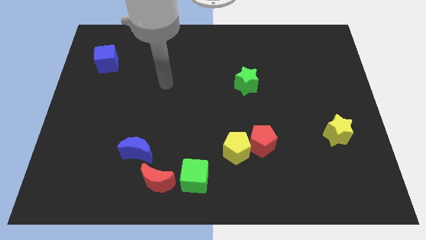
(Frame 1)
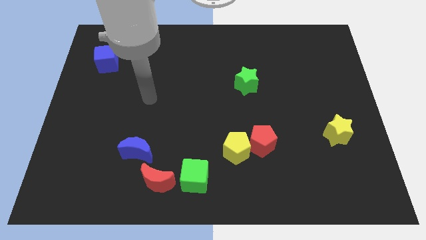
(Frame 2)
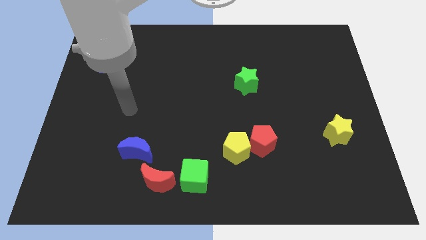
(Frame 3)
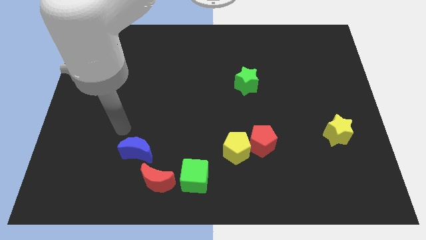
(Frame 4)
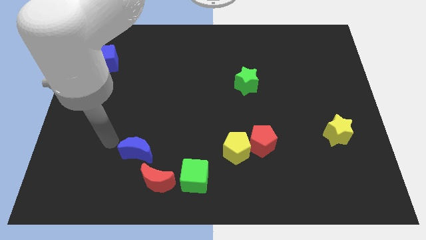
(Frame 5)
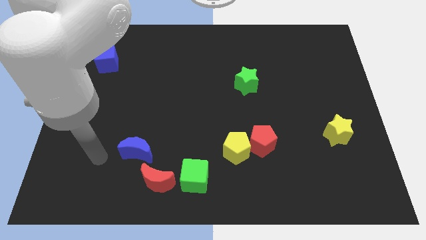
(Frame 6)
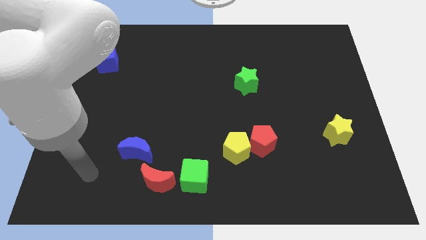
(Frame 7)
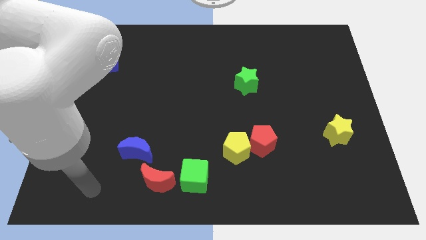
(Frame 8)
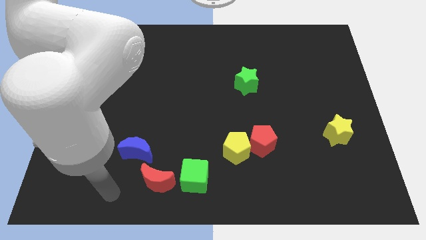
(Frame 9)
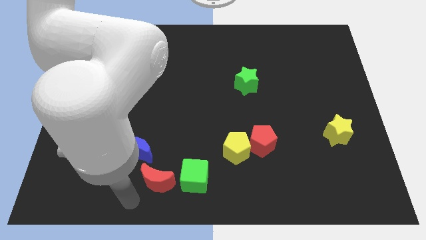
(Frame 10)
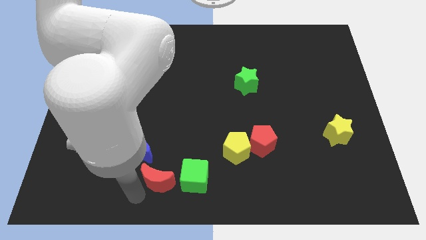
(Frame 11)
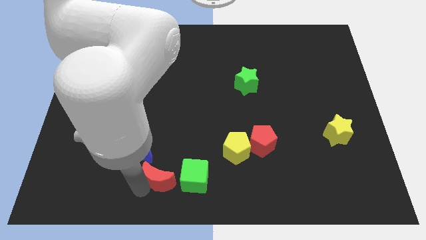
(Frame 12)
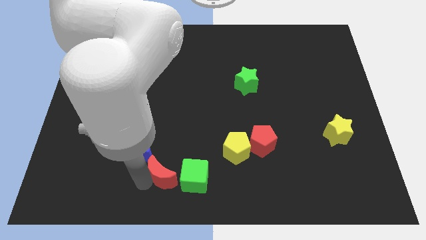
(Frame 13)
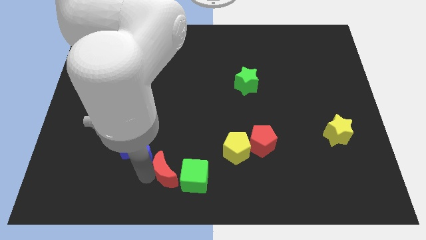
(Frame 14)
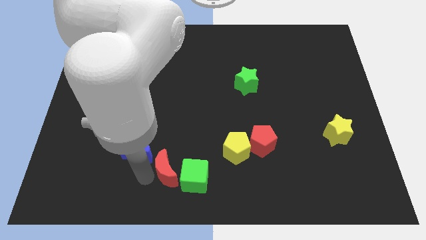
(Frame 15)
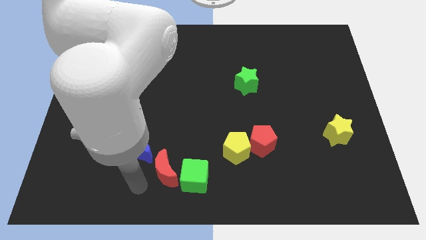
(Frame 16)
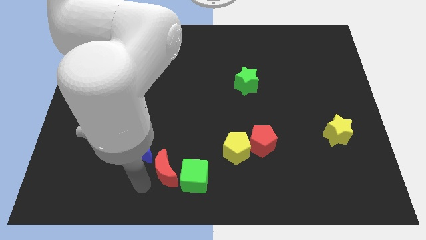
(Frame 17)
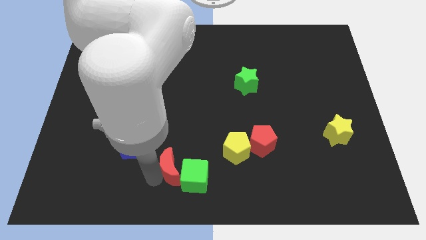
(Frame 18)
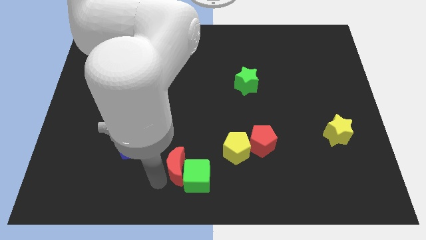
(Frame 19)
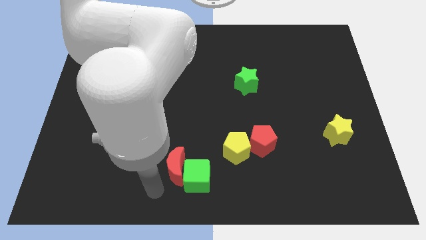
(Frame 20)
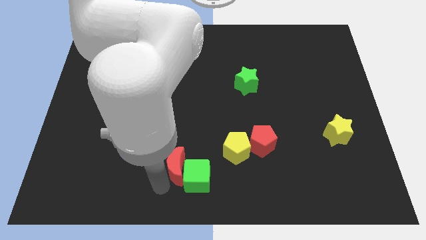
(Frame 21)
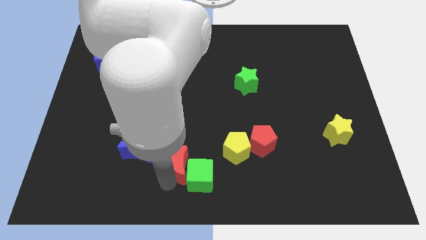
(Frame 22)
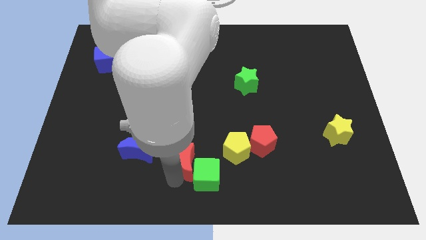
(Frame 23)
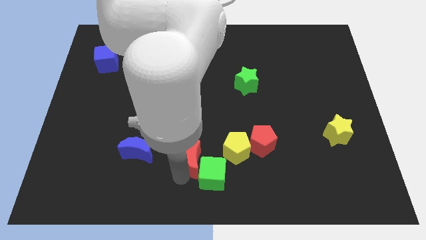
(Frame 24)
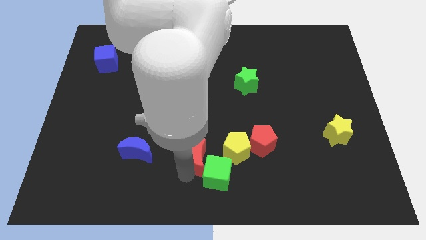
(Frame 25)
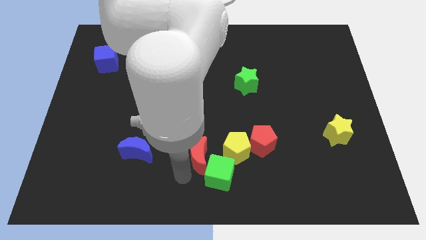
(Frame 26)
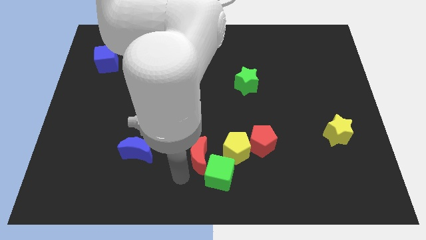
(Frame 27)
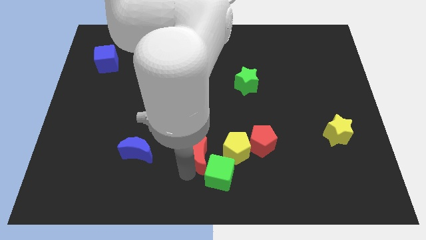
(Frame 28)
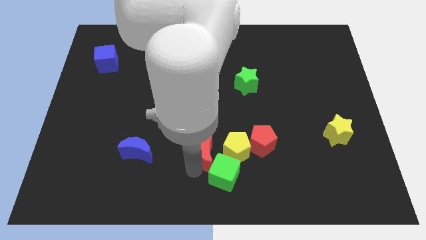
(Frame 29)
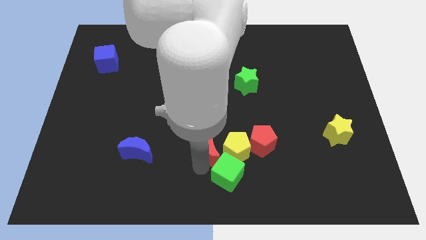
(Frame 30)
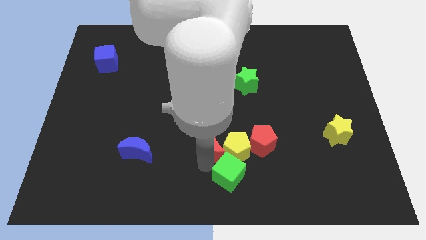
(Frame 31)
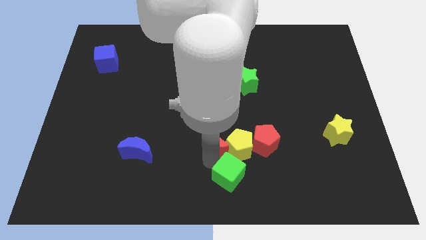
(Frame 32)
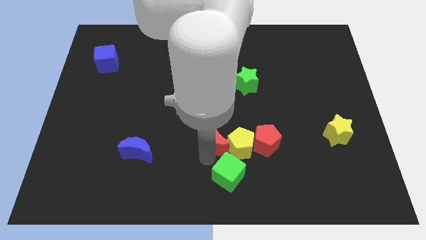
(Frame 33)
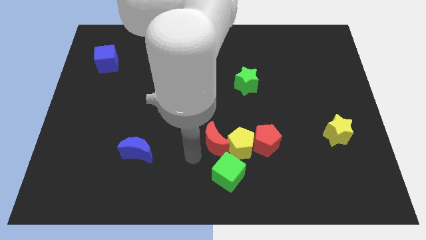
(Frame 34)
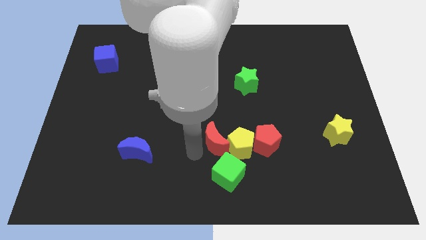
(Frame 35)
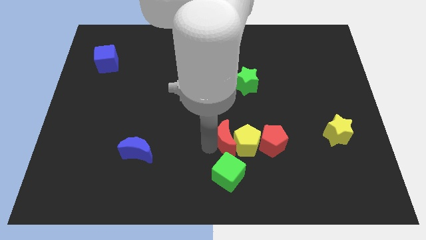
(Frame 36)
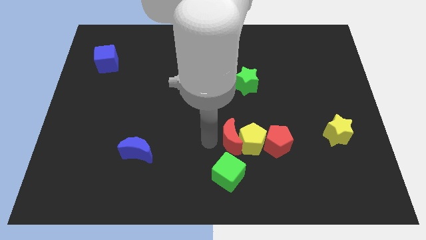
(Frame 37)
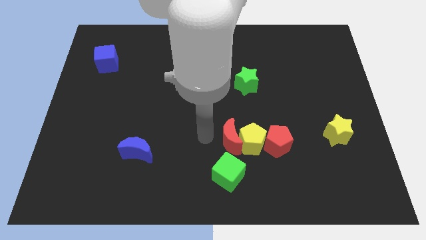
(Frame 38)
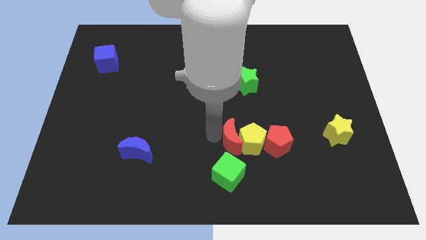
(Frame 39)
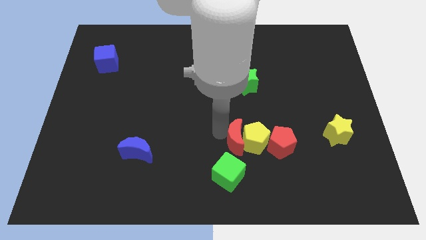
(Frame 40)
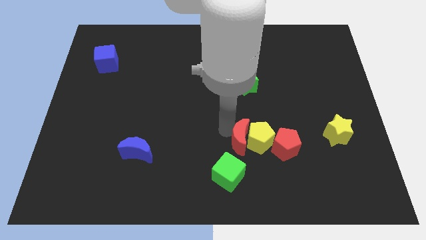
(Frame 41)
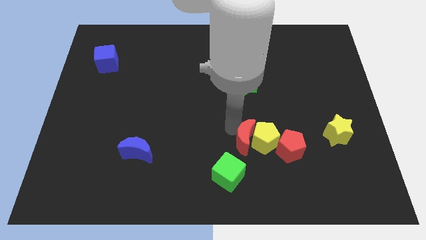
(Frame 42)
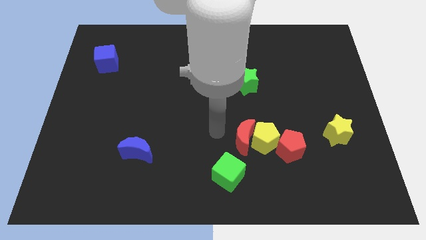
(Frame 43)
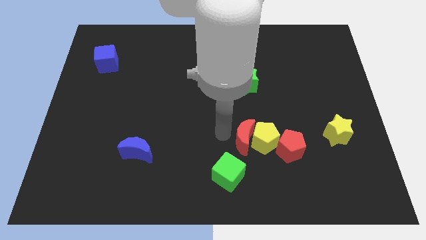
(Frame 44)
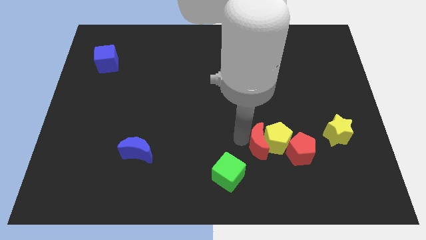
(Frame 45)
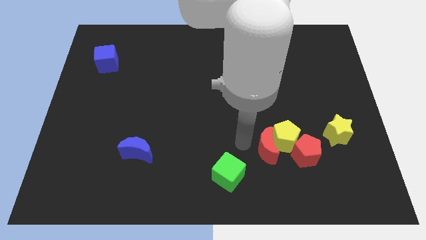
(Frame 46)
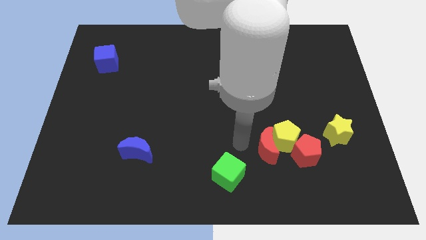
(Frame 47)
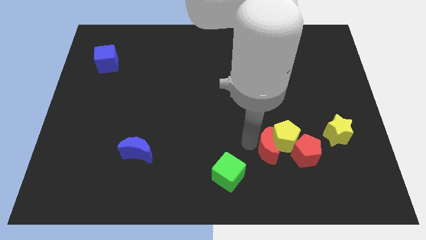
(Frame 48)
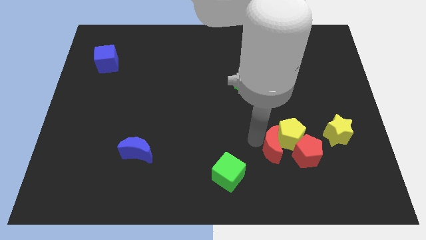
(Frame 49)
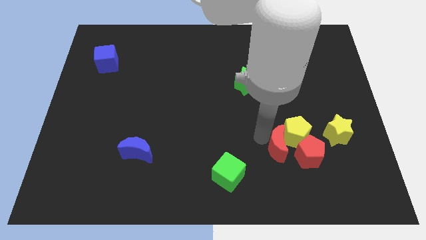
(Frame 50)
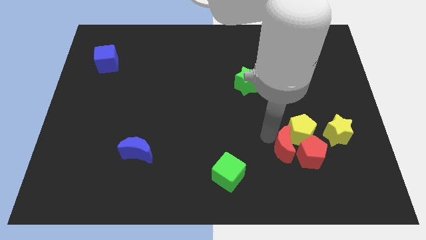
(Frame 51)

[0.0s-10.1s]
move the red moon next to the red pentagon

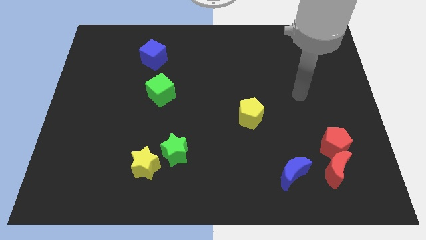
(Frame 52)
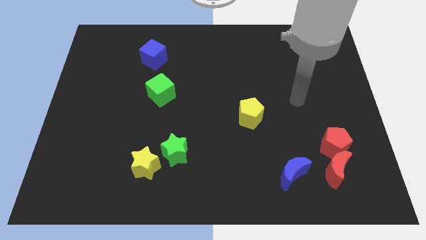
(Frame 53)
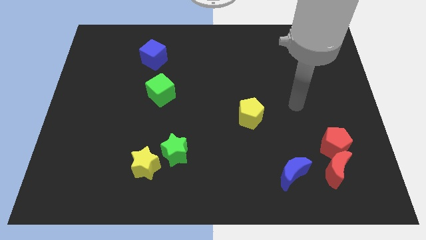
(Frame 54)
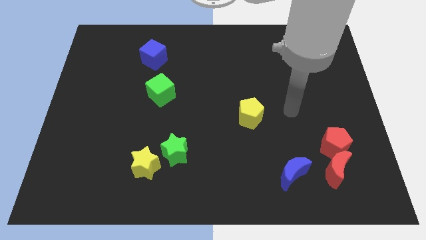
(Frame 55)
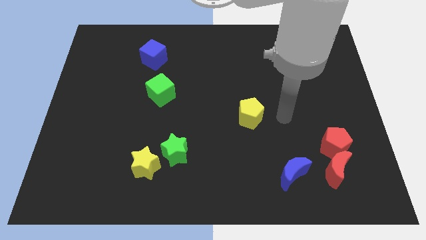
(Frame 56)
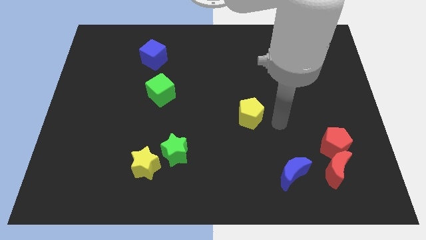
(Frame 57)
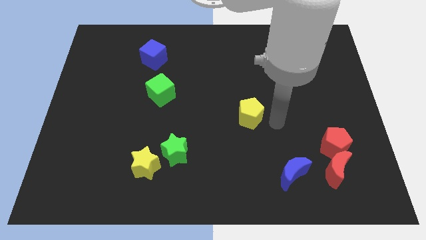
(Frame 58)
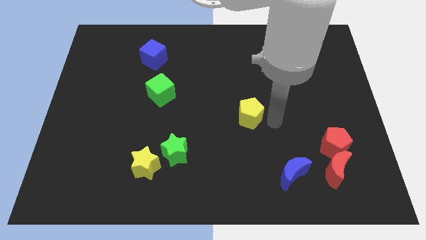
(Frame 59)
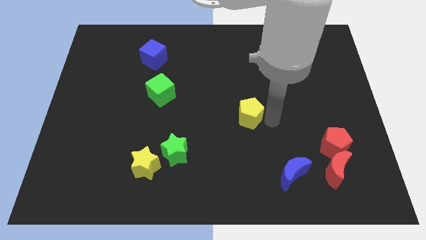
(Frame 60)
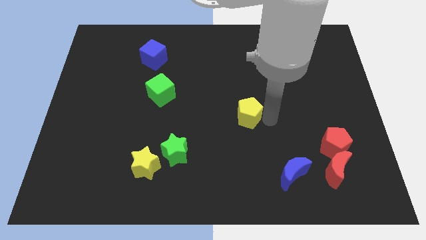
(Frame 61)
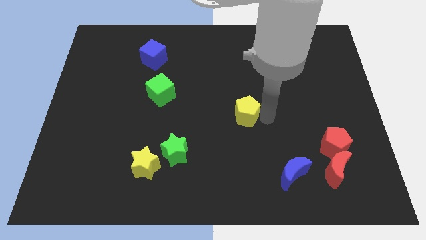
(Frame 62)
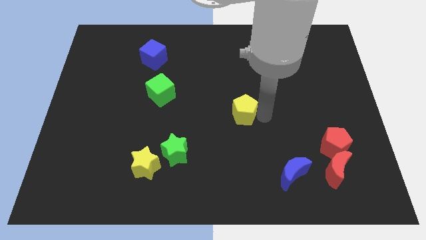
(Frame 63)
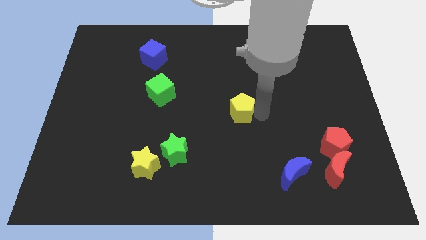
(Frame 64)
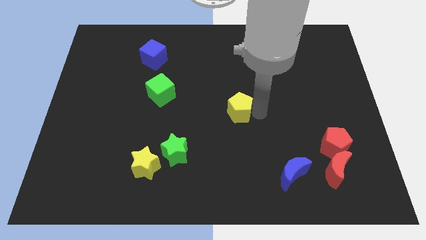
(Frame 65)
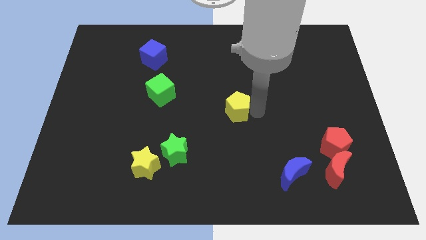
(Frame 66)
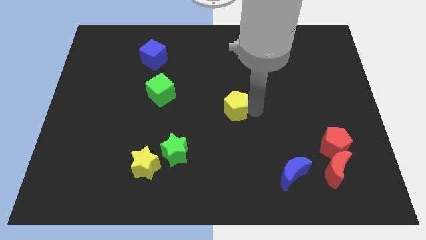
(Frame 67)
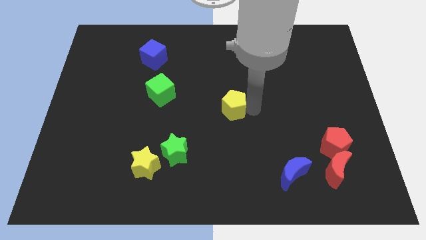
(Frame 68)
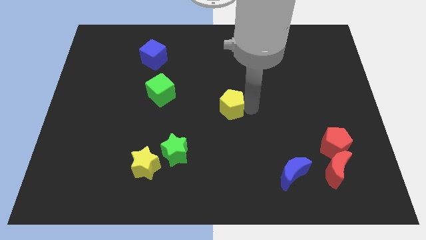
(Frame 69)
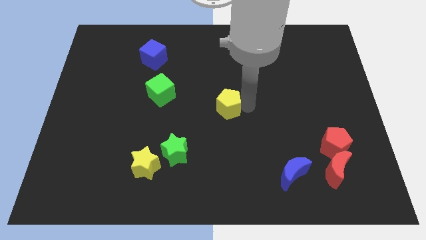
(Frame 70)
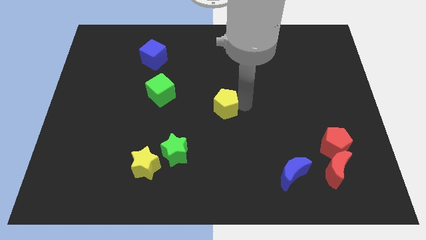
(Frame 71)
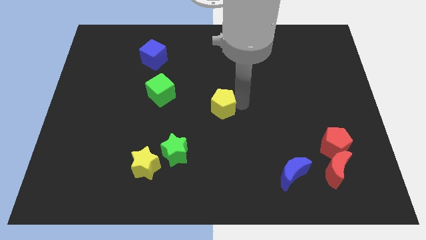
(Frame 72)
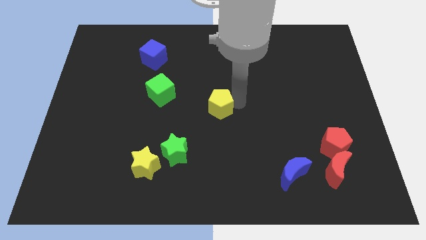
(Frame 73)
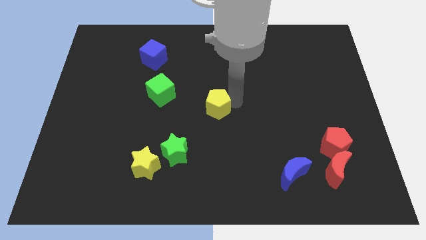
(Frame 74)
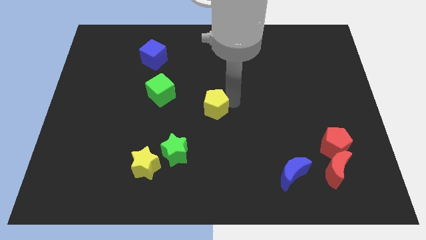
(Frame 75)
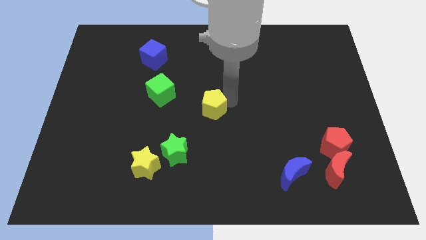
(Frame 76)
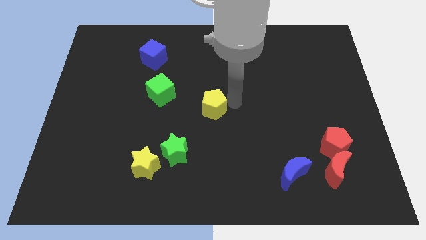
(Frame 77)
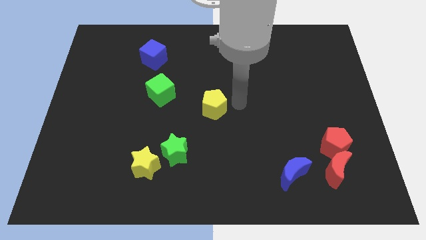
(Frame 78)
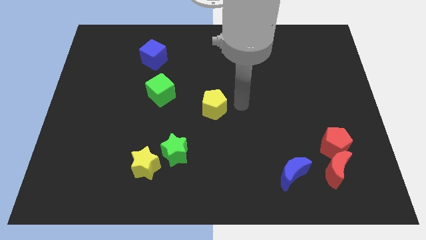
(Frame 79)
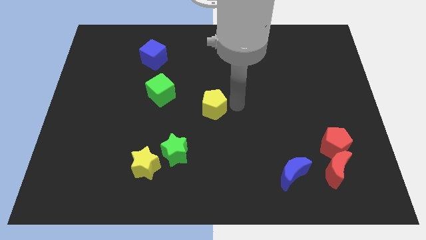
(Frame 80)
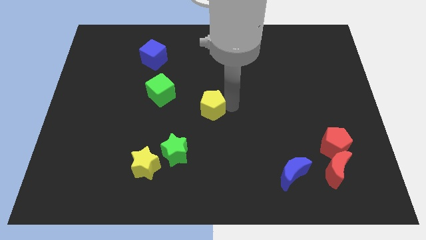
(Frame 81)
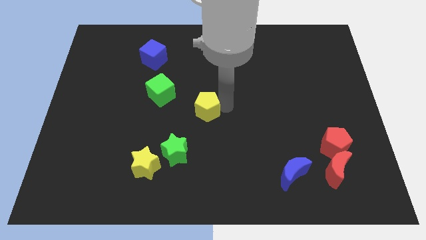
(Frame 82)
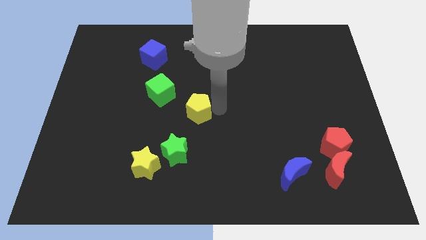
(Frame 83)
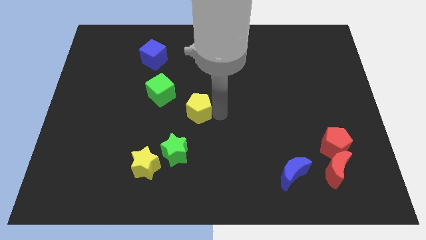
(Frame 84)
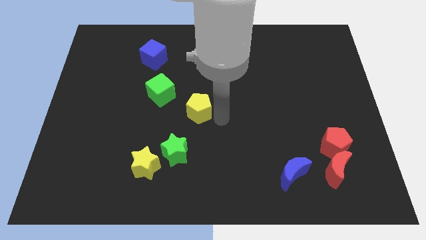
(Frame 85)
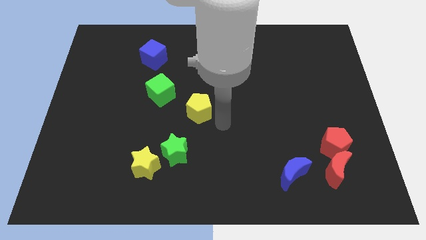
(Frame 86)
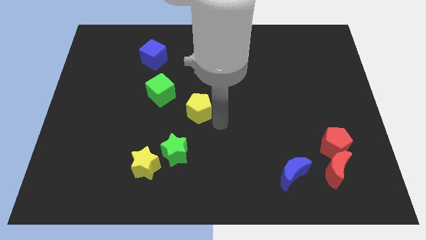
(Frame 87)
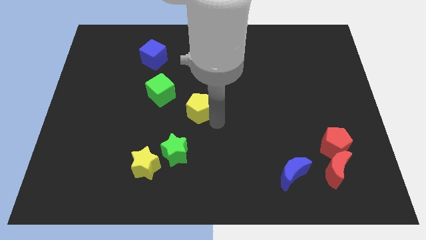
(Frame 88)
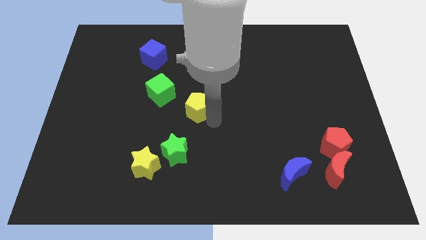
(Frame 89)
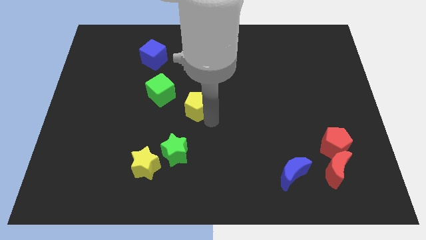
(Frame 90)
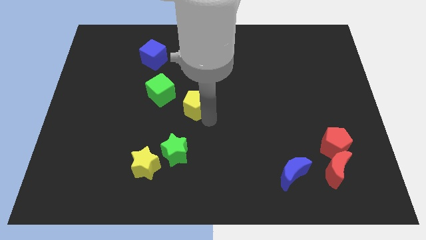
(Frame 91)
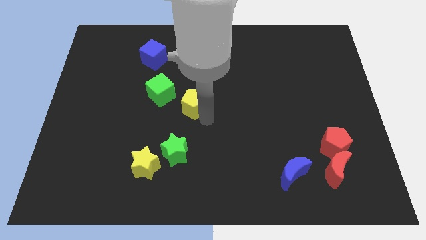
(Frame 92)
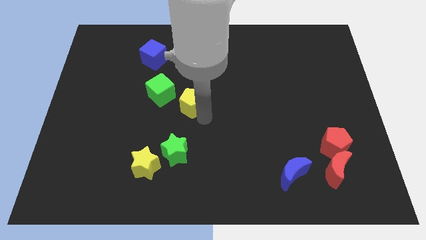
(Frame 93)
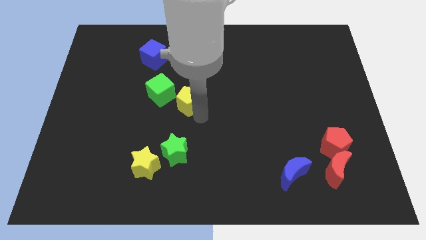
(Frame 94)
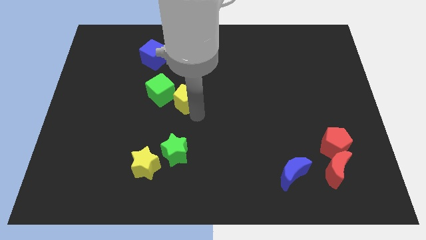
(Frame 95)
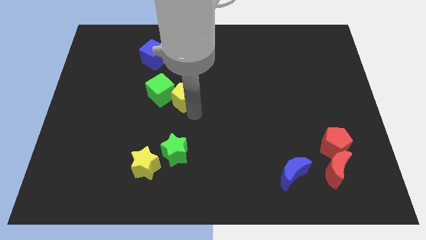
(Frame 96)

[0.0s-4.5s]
slide the yellow pentagon next to the green cube
